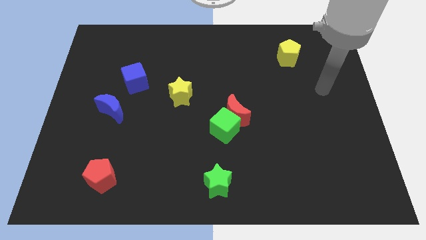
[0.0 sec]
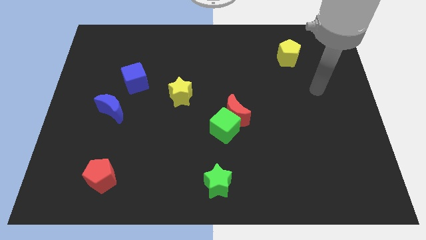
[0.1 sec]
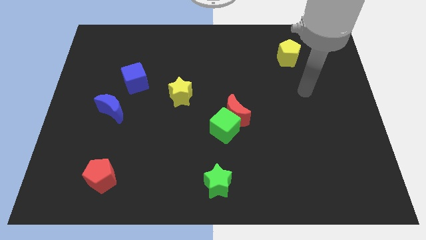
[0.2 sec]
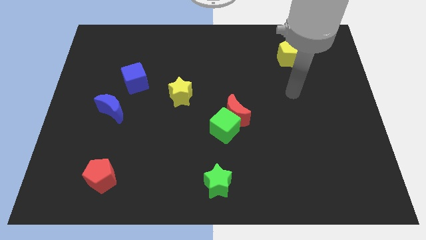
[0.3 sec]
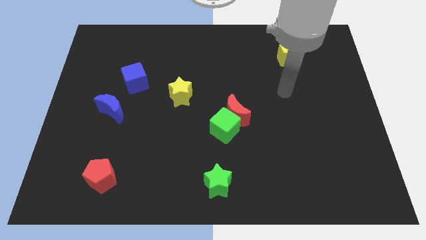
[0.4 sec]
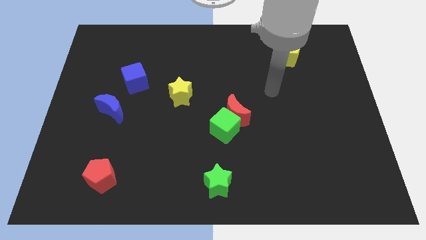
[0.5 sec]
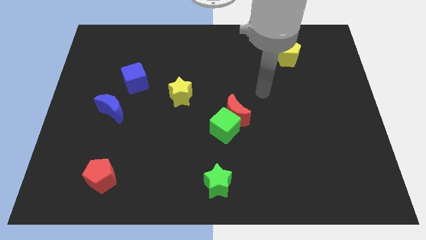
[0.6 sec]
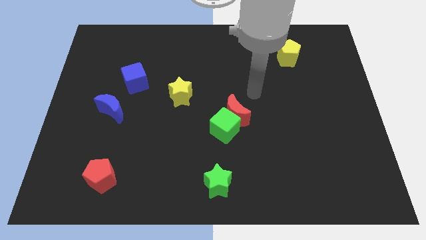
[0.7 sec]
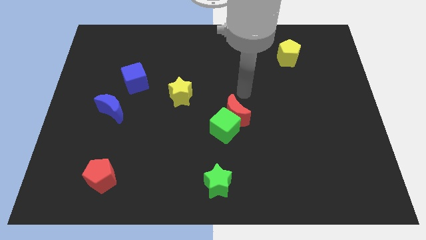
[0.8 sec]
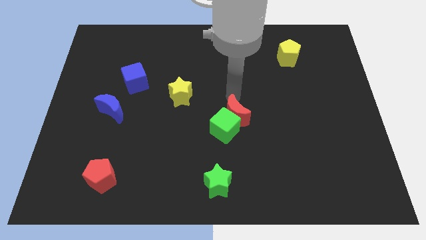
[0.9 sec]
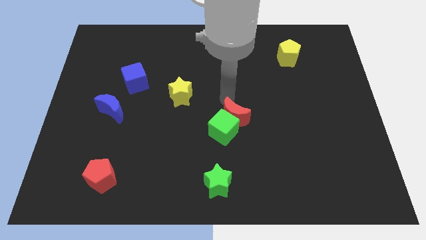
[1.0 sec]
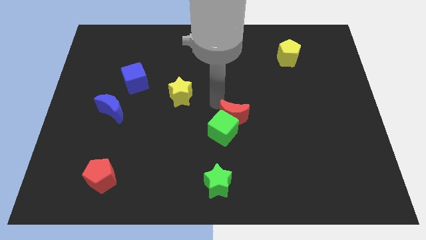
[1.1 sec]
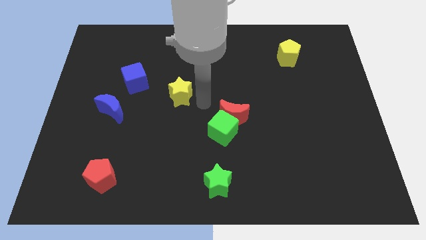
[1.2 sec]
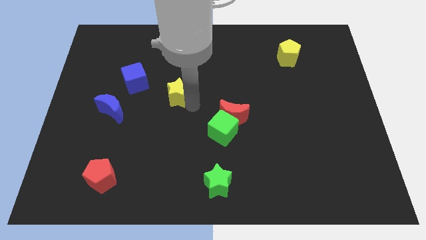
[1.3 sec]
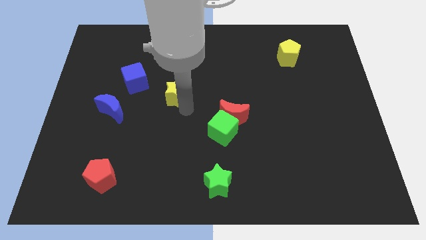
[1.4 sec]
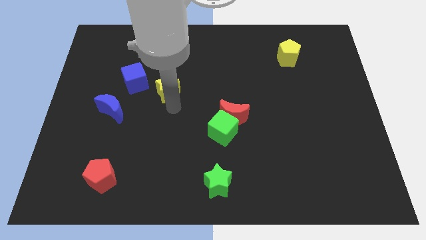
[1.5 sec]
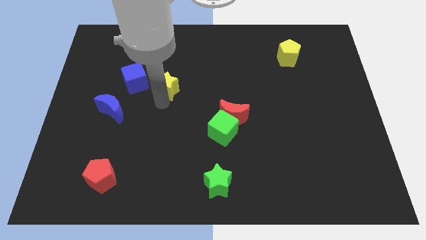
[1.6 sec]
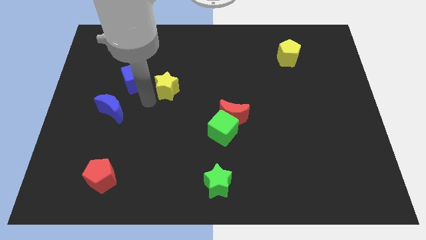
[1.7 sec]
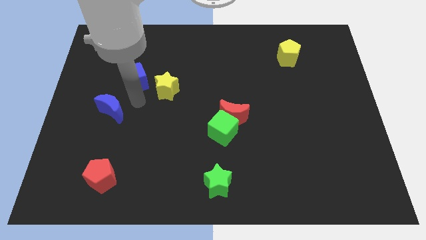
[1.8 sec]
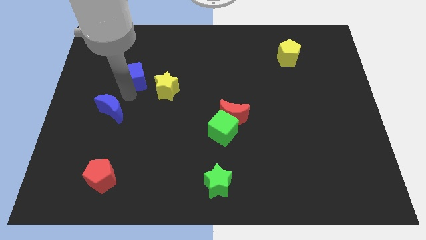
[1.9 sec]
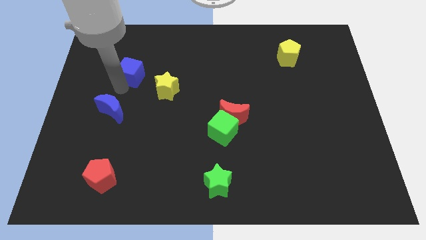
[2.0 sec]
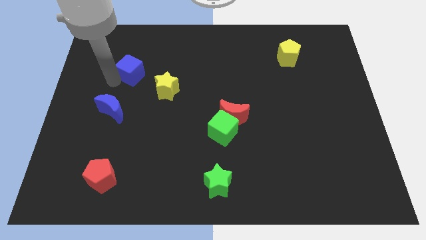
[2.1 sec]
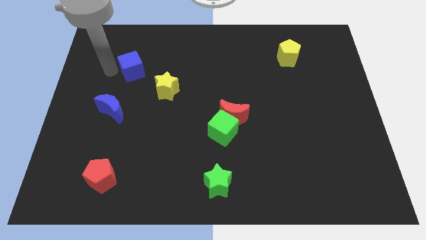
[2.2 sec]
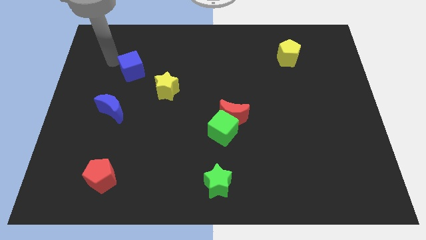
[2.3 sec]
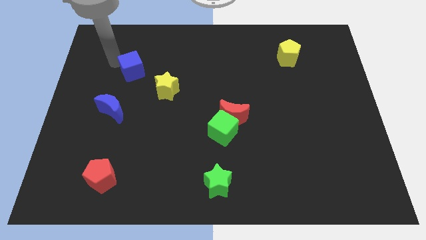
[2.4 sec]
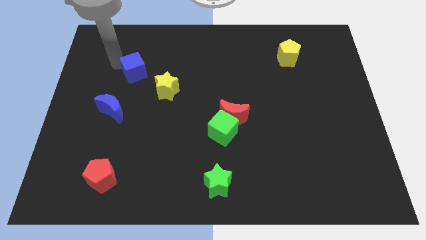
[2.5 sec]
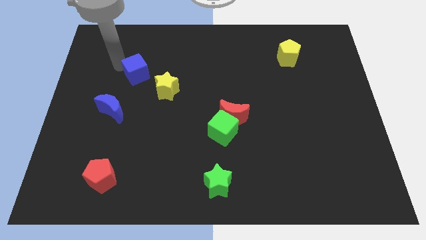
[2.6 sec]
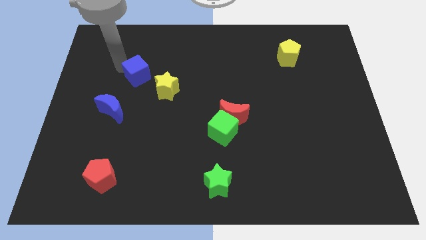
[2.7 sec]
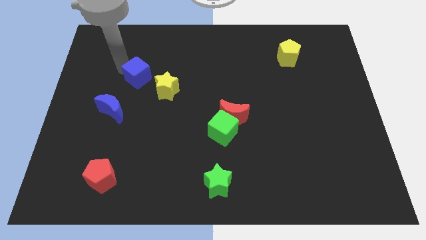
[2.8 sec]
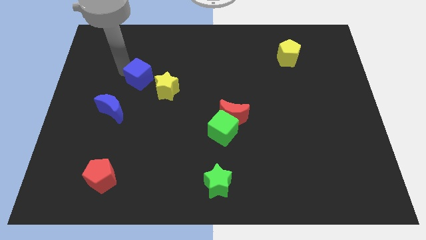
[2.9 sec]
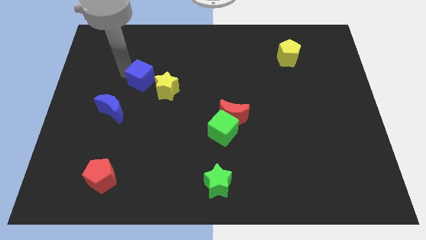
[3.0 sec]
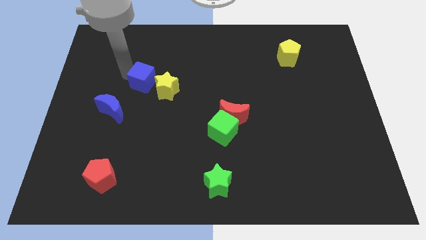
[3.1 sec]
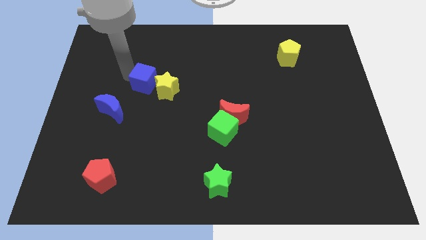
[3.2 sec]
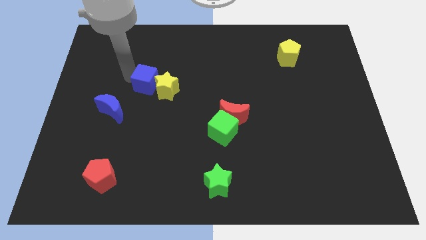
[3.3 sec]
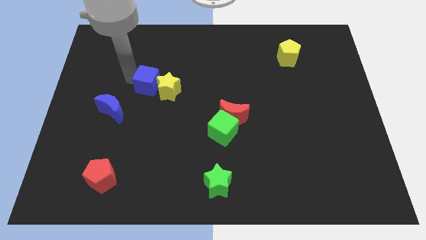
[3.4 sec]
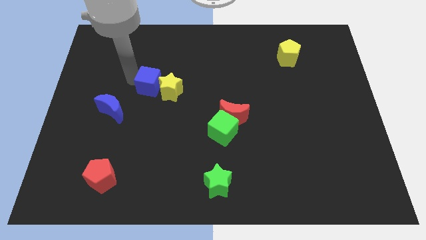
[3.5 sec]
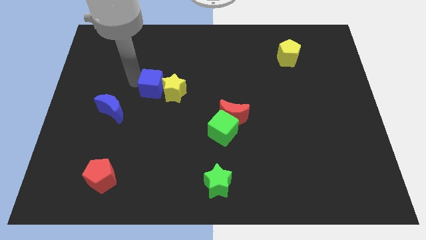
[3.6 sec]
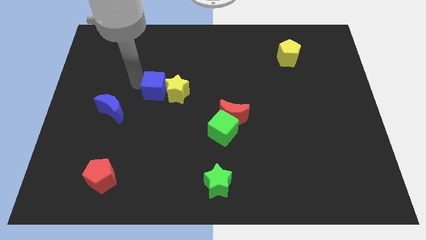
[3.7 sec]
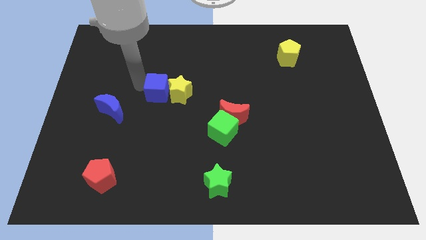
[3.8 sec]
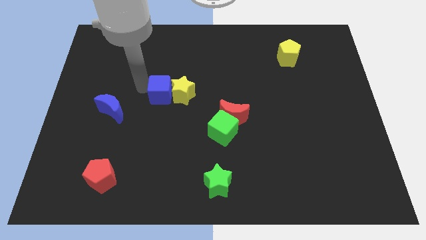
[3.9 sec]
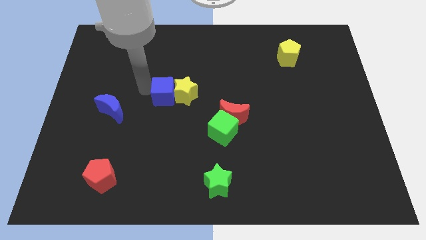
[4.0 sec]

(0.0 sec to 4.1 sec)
slide the blue cube to the right slightly

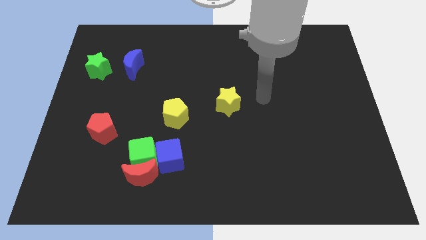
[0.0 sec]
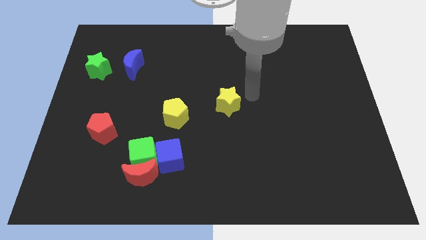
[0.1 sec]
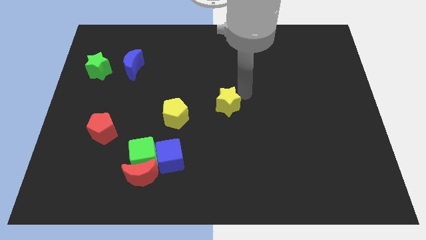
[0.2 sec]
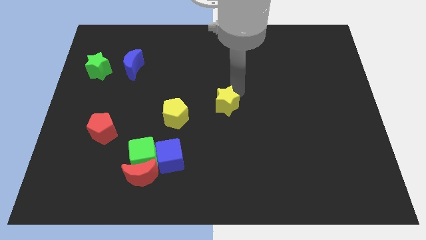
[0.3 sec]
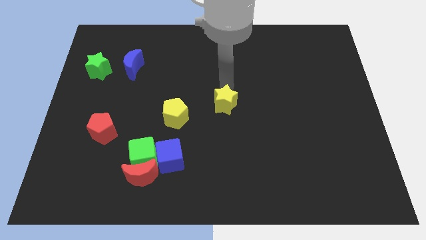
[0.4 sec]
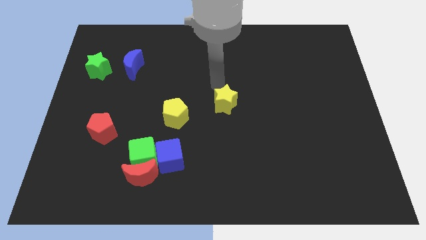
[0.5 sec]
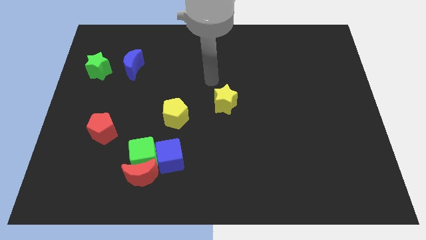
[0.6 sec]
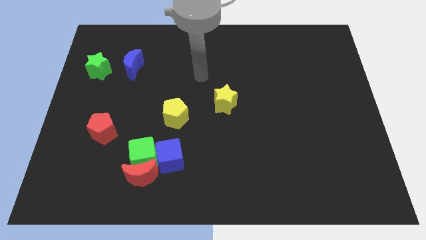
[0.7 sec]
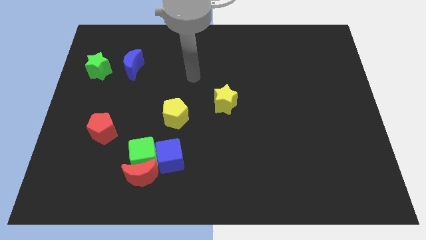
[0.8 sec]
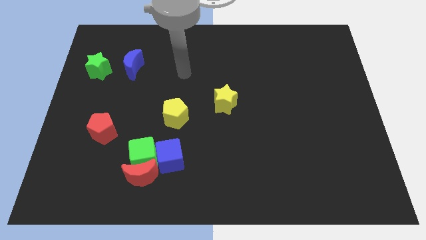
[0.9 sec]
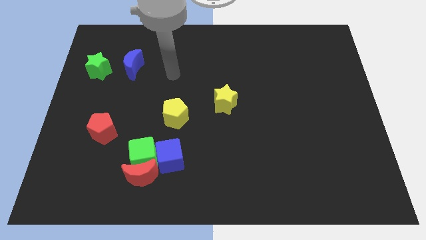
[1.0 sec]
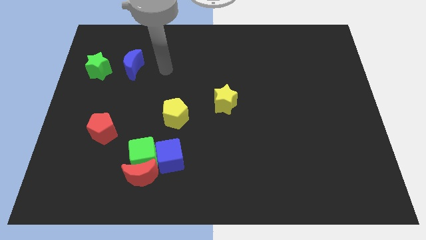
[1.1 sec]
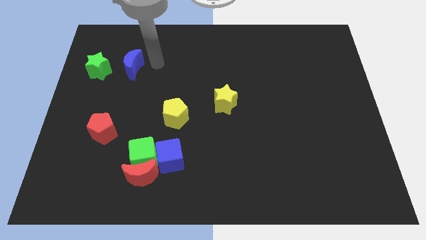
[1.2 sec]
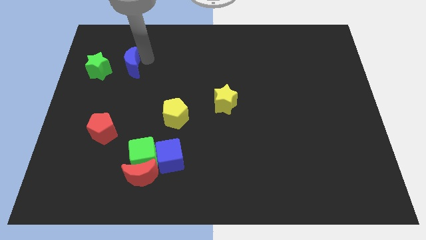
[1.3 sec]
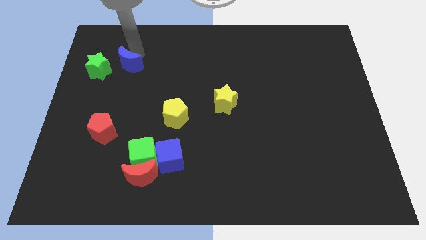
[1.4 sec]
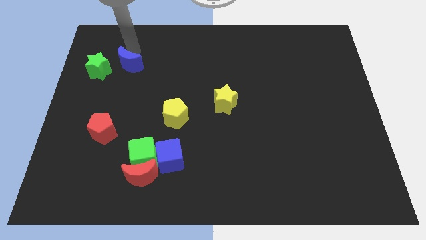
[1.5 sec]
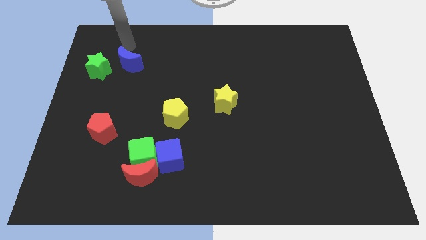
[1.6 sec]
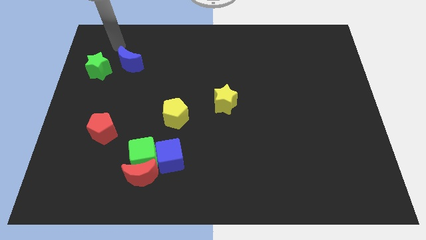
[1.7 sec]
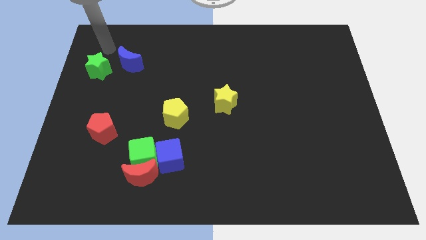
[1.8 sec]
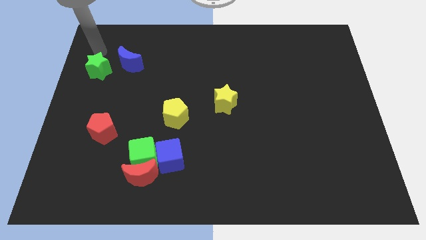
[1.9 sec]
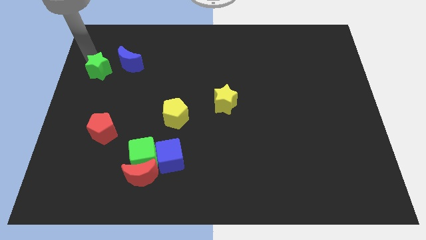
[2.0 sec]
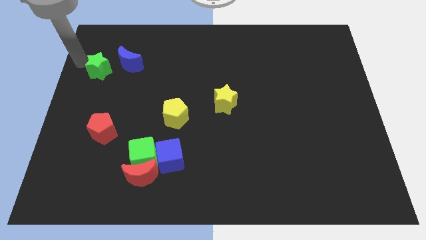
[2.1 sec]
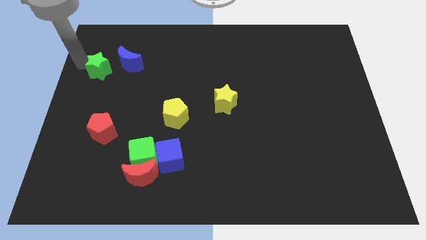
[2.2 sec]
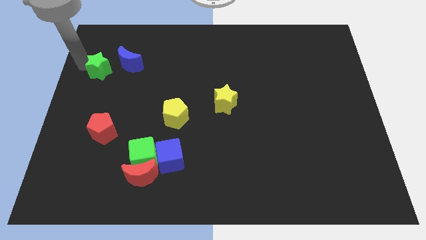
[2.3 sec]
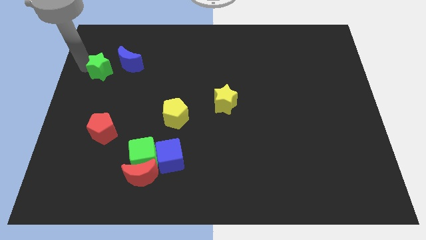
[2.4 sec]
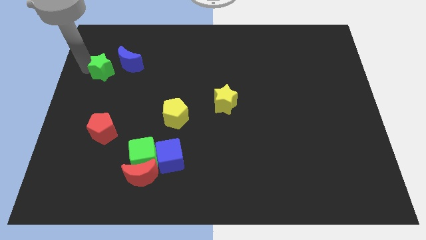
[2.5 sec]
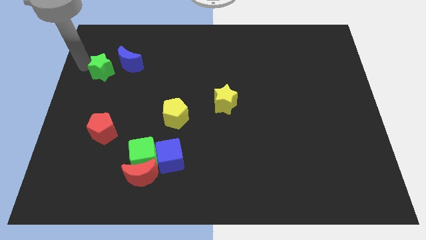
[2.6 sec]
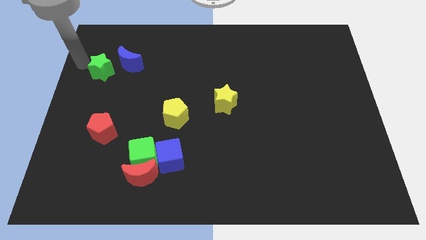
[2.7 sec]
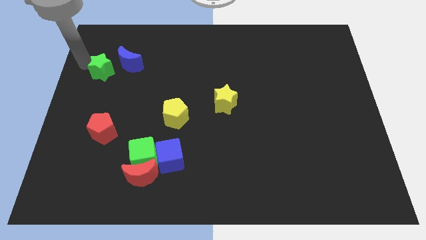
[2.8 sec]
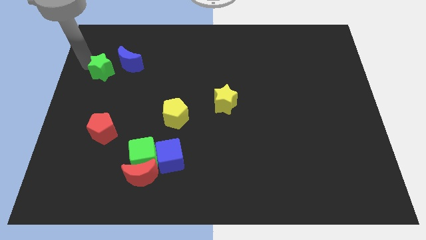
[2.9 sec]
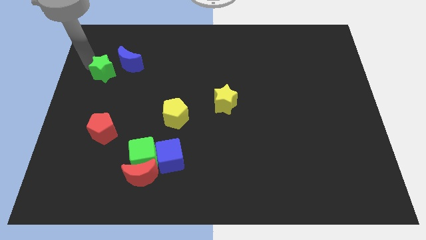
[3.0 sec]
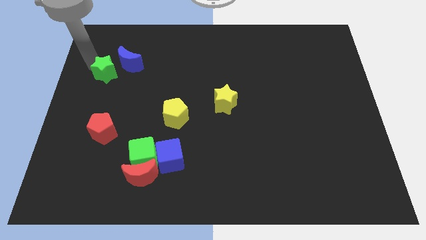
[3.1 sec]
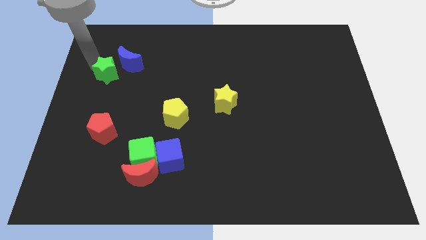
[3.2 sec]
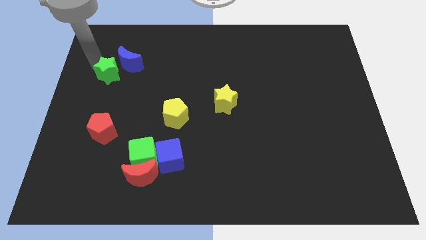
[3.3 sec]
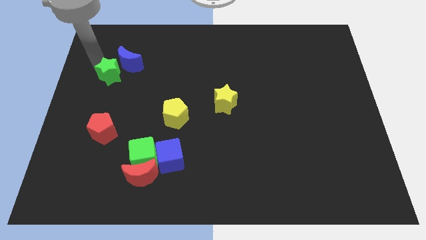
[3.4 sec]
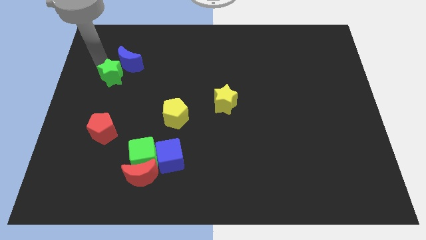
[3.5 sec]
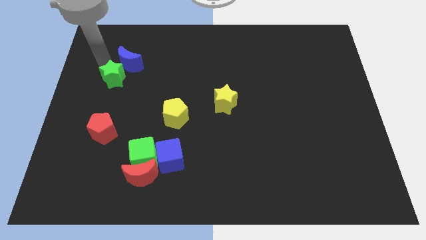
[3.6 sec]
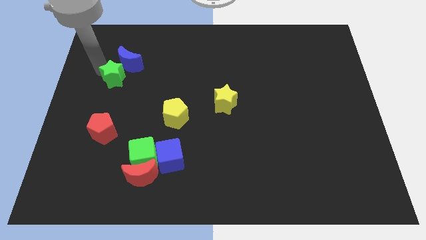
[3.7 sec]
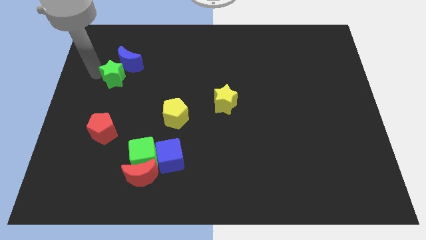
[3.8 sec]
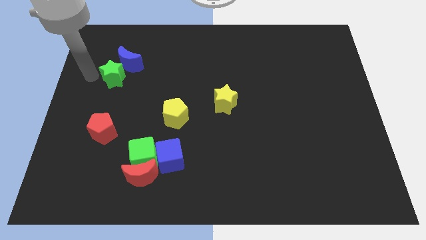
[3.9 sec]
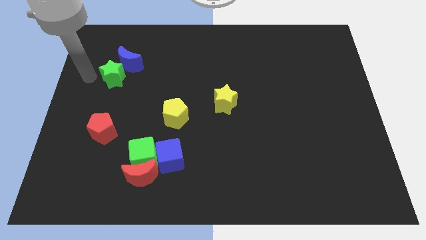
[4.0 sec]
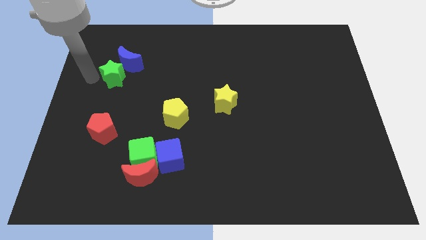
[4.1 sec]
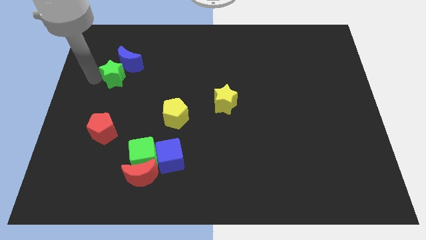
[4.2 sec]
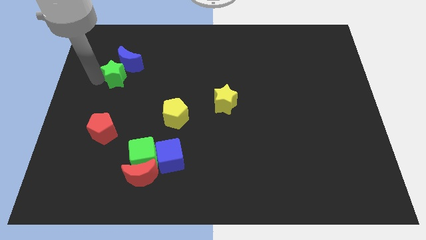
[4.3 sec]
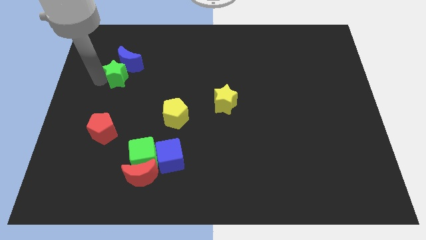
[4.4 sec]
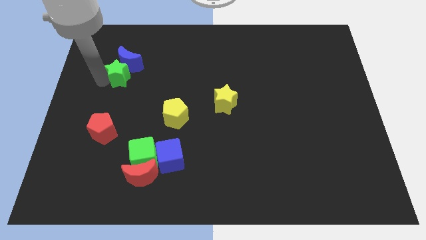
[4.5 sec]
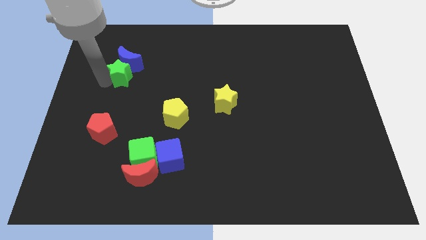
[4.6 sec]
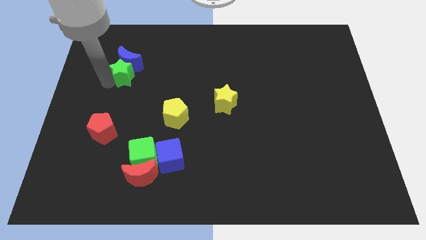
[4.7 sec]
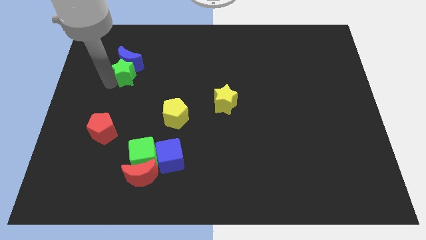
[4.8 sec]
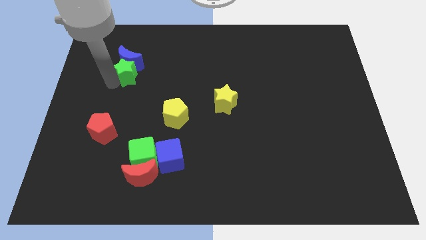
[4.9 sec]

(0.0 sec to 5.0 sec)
move the green star right a little
